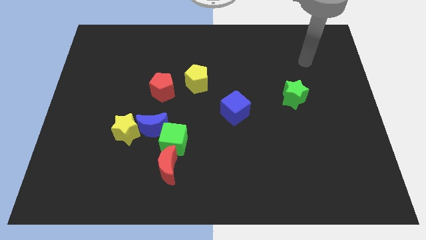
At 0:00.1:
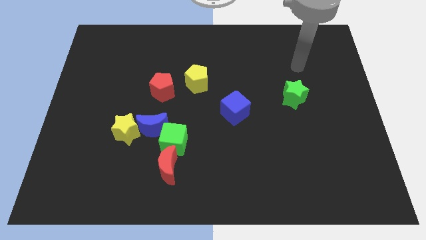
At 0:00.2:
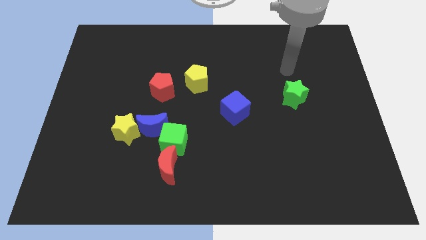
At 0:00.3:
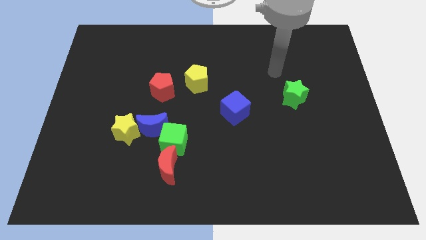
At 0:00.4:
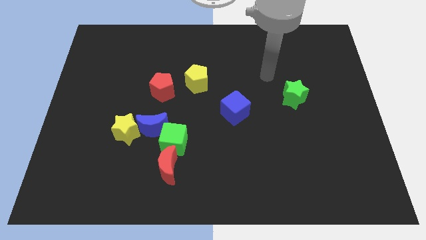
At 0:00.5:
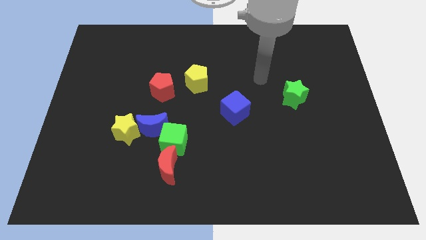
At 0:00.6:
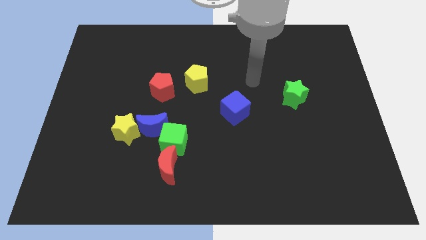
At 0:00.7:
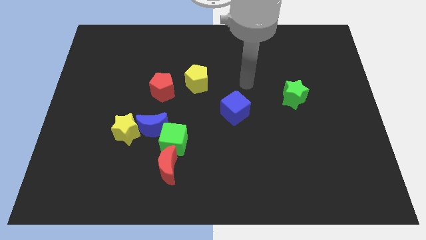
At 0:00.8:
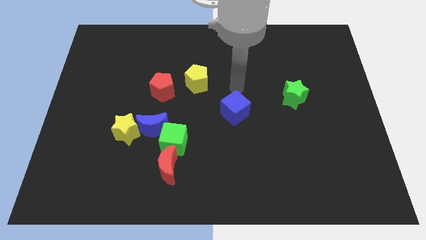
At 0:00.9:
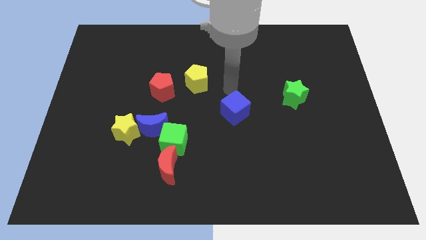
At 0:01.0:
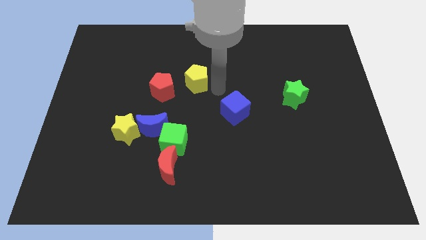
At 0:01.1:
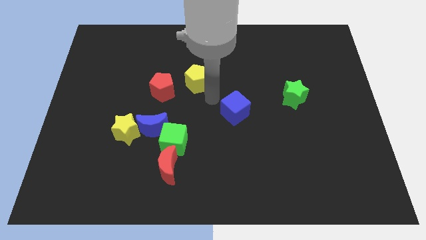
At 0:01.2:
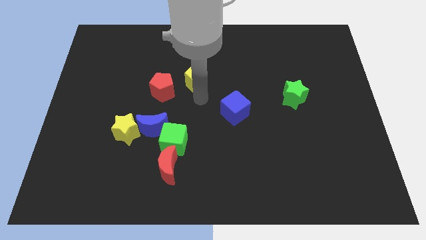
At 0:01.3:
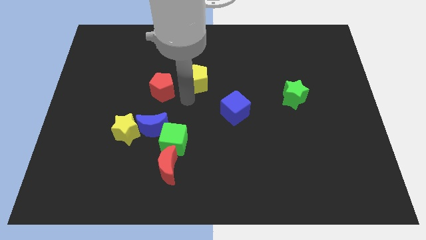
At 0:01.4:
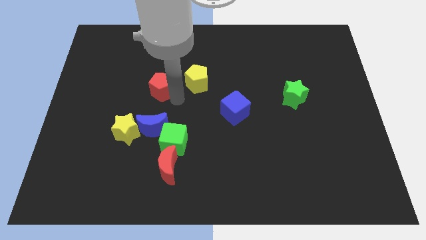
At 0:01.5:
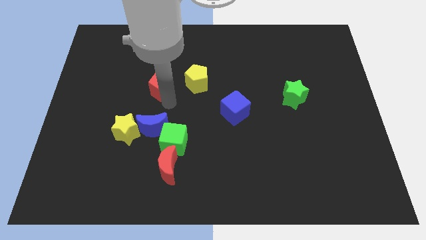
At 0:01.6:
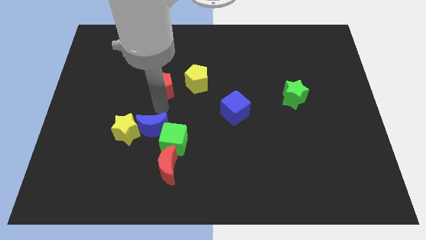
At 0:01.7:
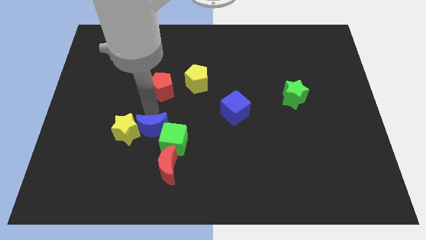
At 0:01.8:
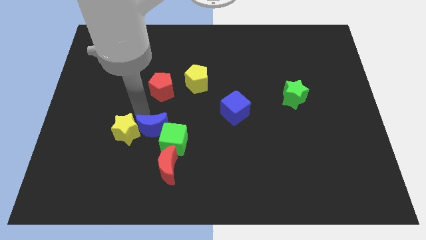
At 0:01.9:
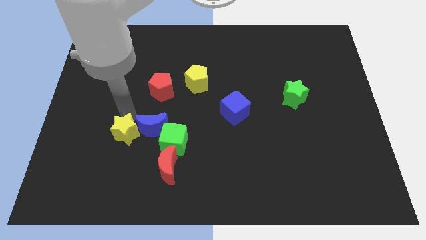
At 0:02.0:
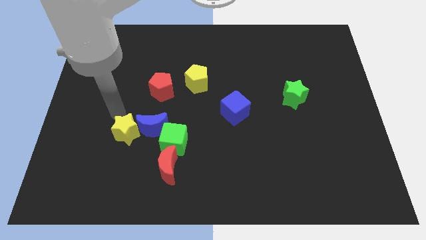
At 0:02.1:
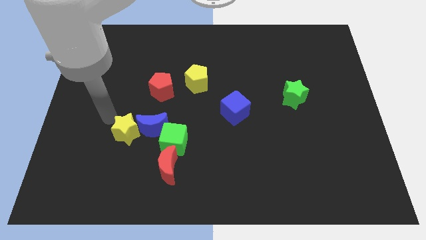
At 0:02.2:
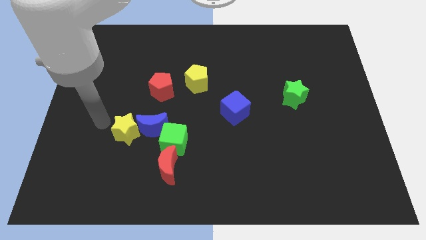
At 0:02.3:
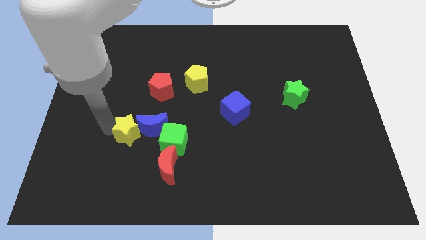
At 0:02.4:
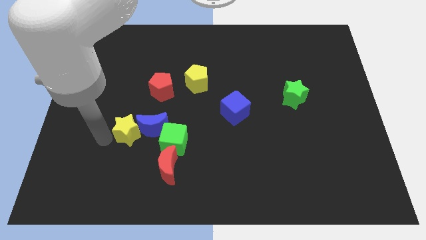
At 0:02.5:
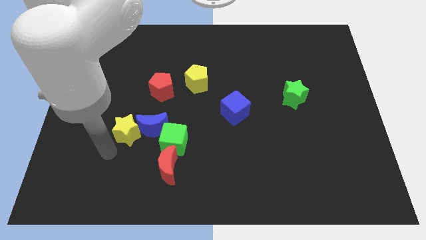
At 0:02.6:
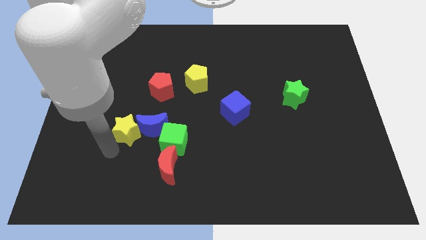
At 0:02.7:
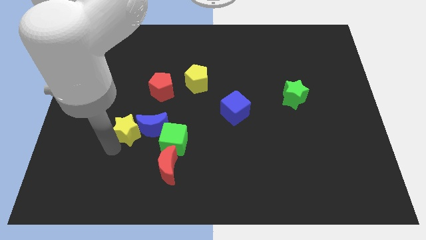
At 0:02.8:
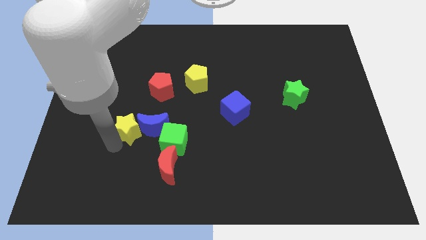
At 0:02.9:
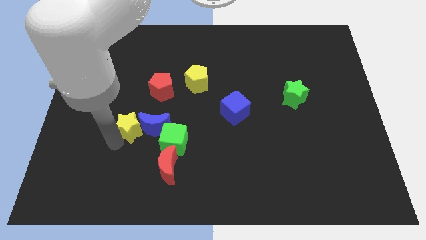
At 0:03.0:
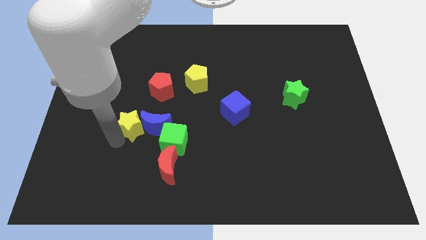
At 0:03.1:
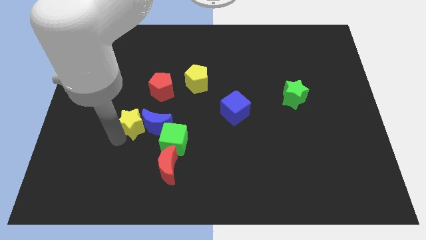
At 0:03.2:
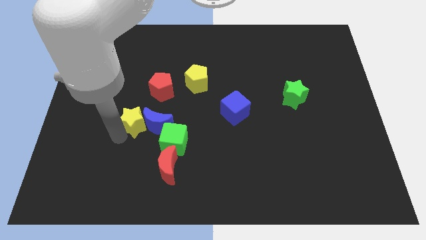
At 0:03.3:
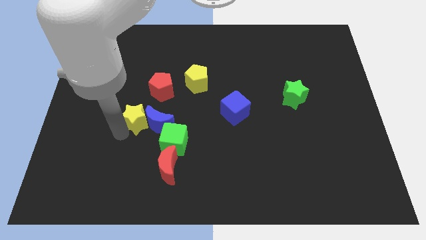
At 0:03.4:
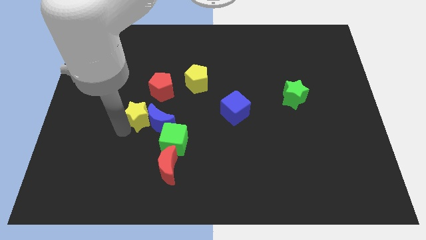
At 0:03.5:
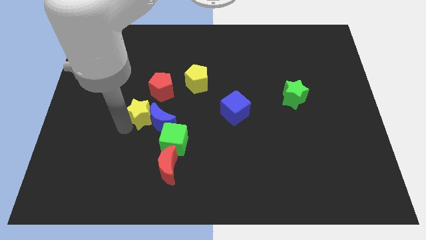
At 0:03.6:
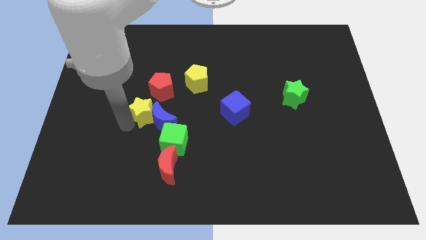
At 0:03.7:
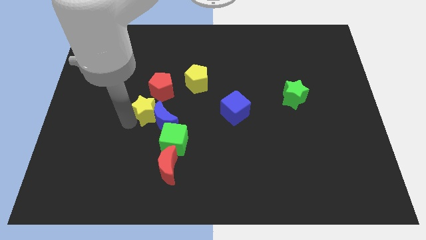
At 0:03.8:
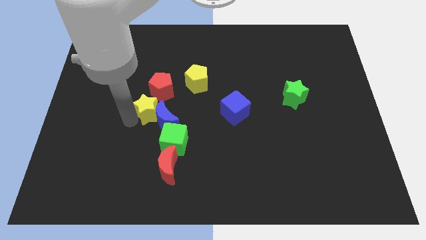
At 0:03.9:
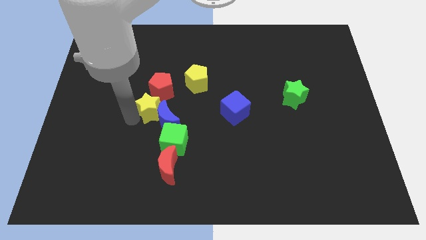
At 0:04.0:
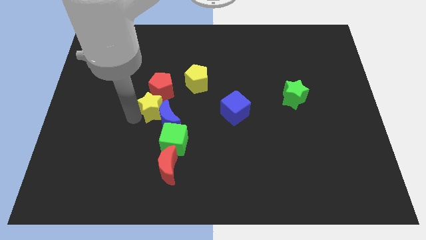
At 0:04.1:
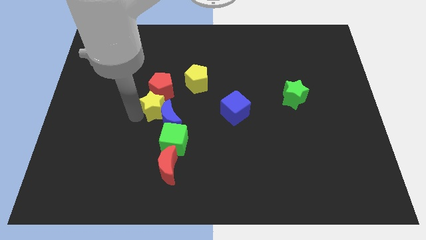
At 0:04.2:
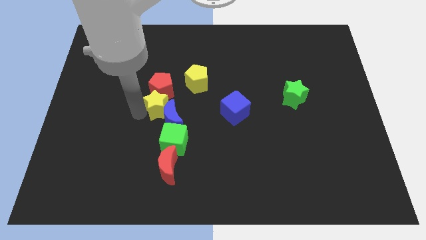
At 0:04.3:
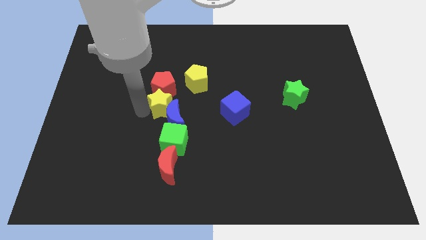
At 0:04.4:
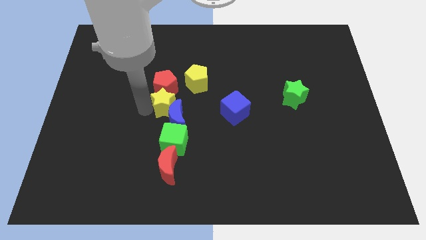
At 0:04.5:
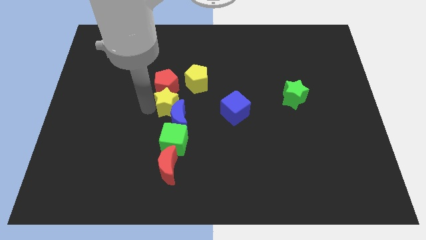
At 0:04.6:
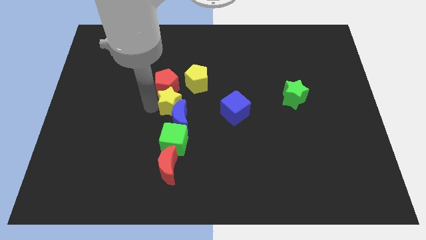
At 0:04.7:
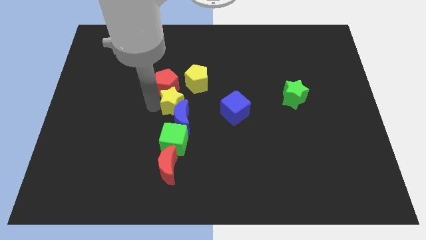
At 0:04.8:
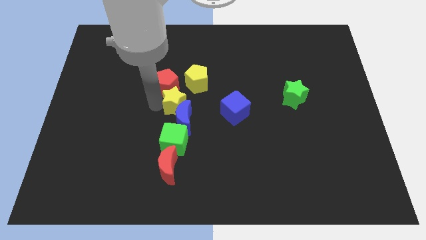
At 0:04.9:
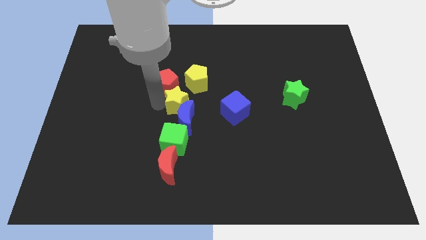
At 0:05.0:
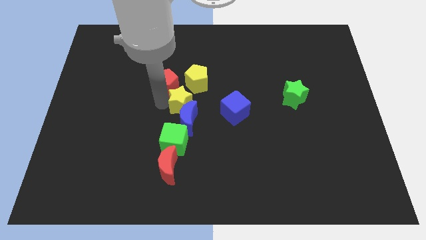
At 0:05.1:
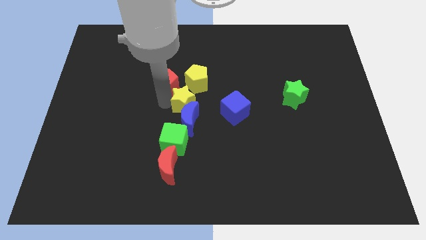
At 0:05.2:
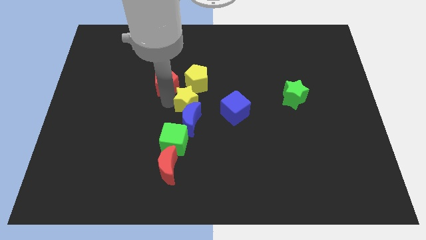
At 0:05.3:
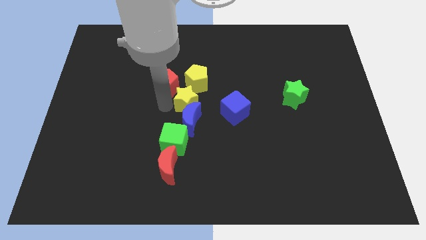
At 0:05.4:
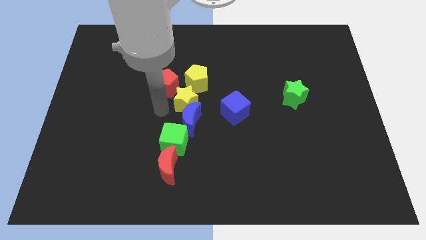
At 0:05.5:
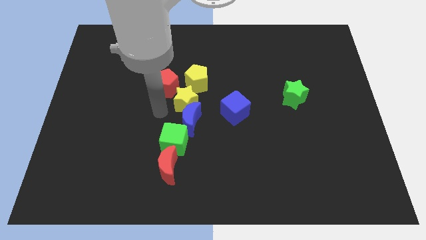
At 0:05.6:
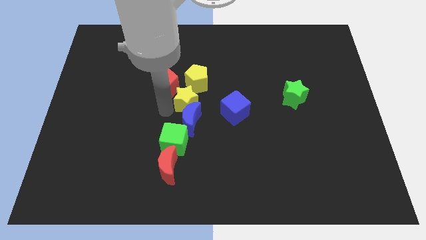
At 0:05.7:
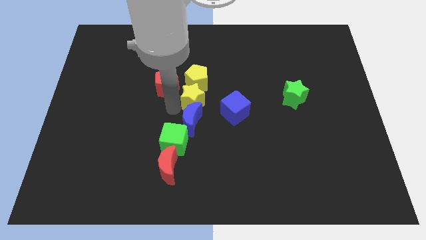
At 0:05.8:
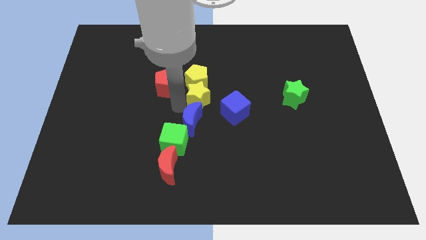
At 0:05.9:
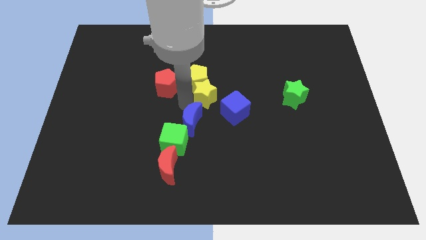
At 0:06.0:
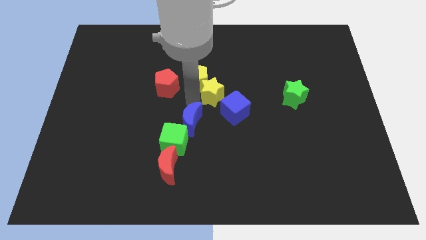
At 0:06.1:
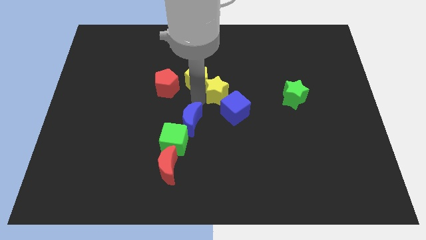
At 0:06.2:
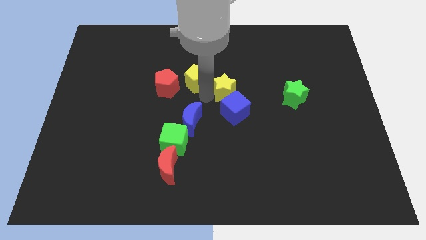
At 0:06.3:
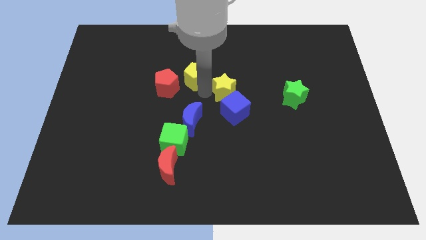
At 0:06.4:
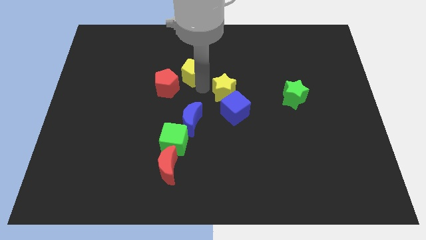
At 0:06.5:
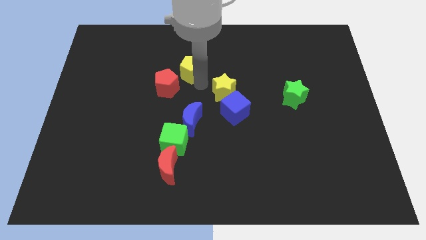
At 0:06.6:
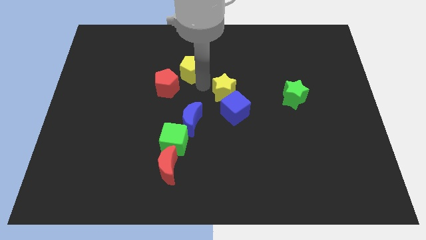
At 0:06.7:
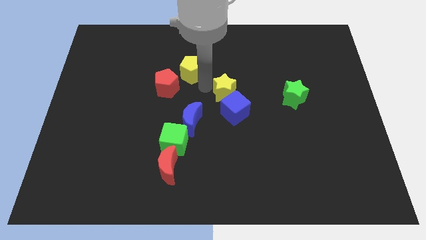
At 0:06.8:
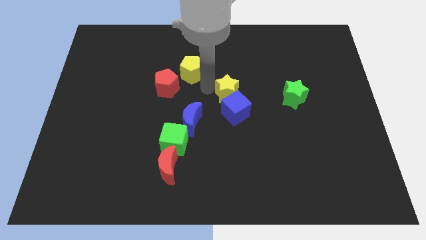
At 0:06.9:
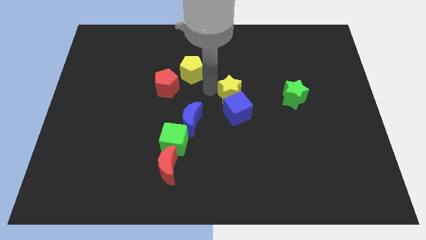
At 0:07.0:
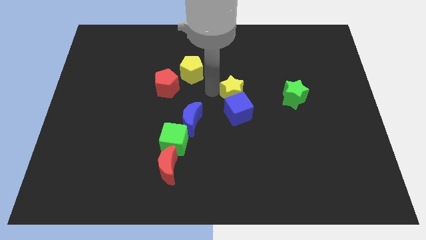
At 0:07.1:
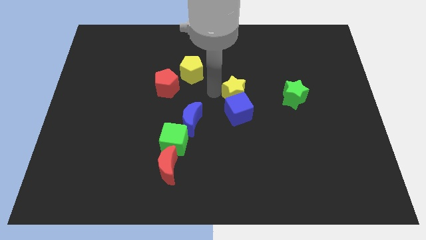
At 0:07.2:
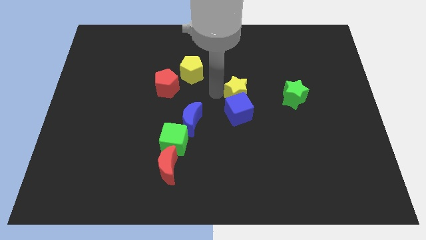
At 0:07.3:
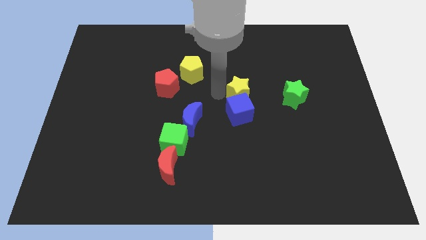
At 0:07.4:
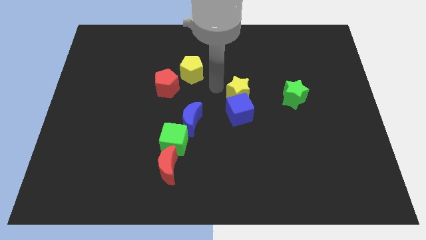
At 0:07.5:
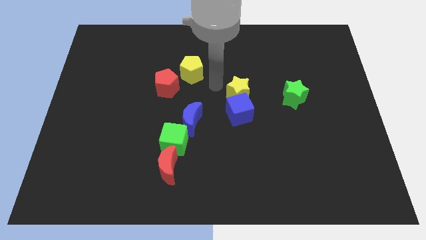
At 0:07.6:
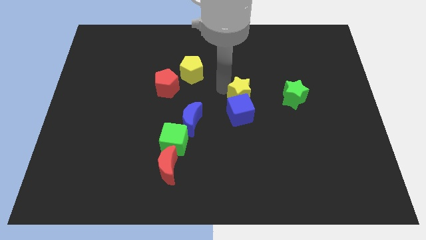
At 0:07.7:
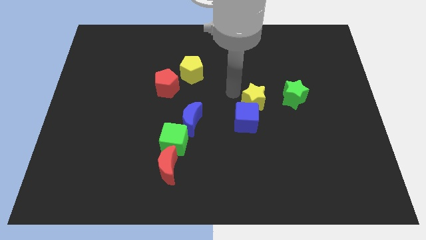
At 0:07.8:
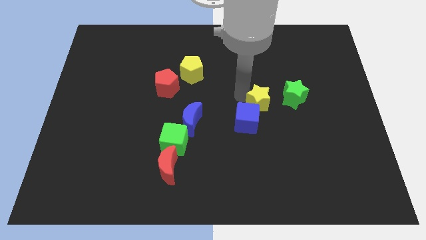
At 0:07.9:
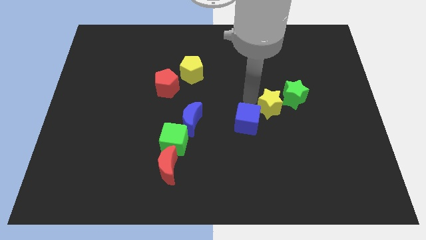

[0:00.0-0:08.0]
put the yellow star to the right of the blue cube
